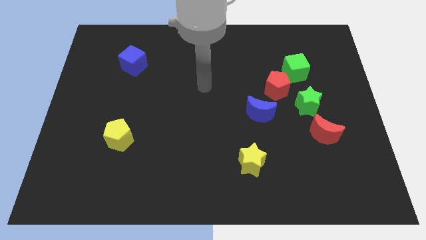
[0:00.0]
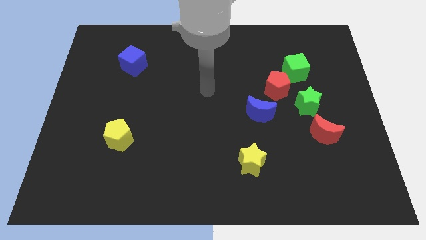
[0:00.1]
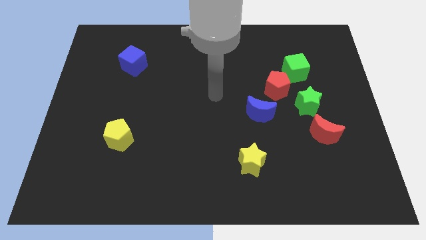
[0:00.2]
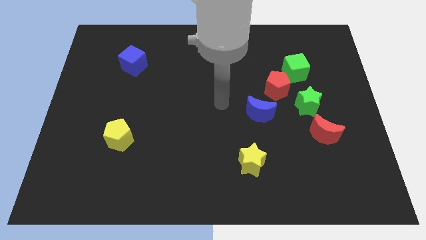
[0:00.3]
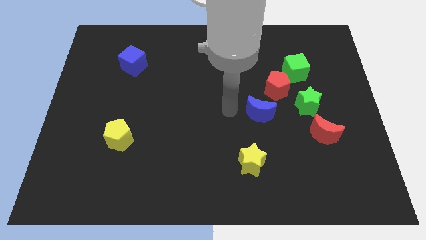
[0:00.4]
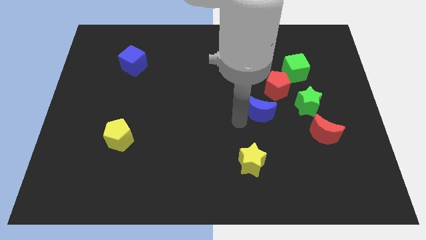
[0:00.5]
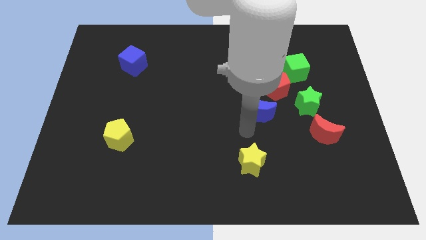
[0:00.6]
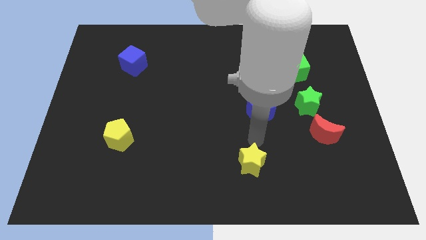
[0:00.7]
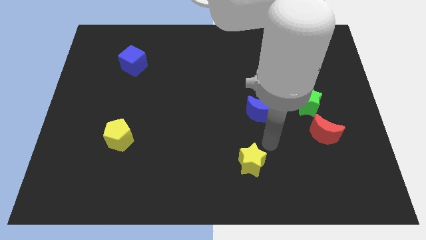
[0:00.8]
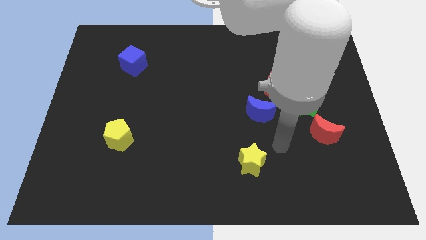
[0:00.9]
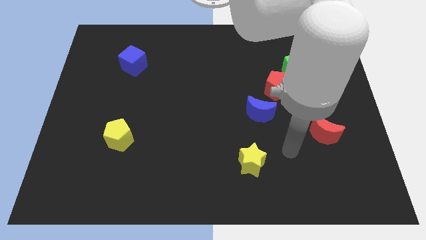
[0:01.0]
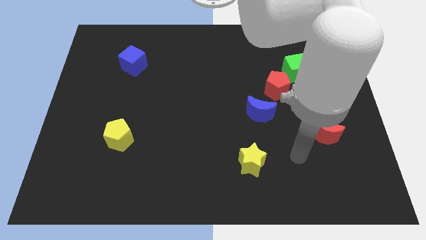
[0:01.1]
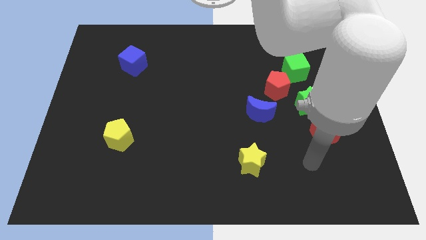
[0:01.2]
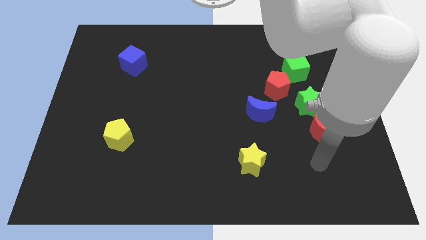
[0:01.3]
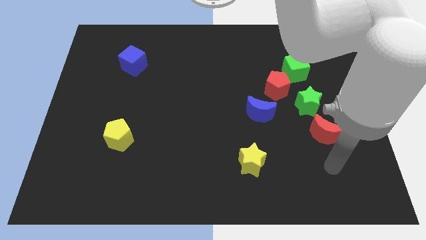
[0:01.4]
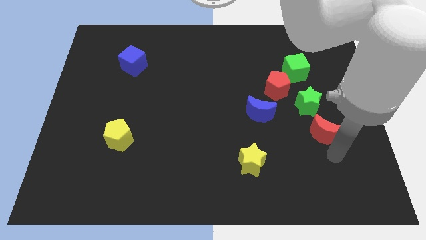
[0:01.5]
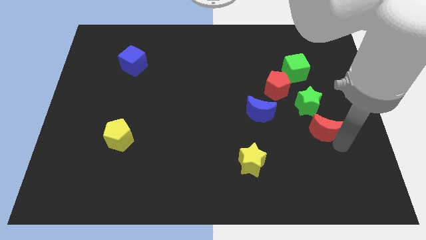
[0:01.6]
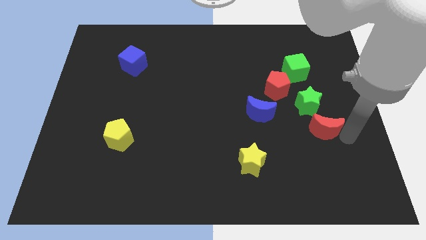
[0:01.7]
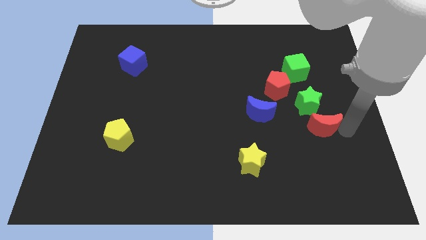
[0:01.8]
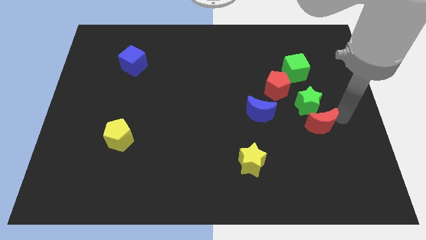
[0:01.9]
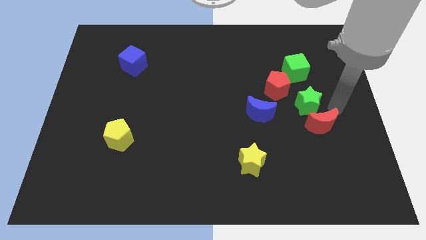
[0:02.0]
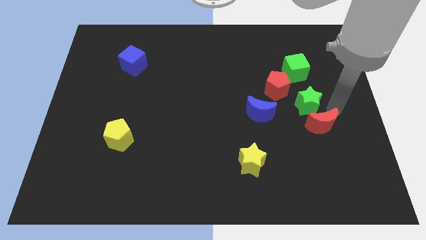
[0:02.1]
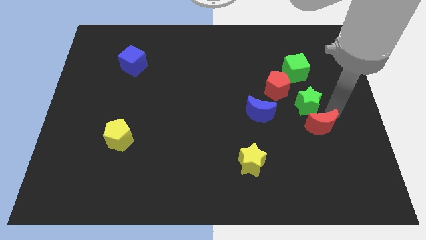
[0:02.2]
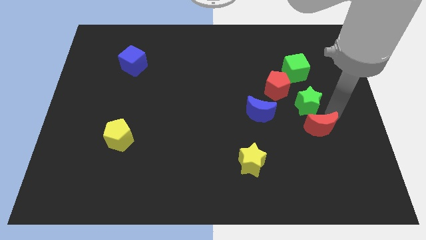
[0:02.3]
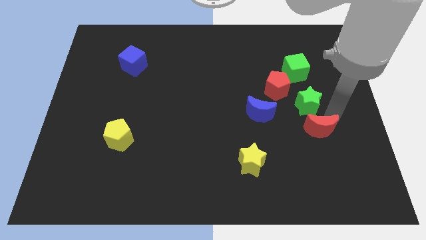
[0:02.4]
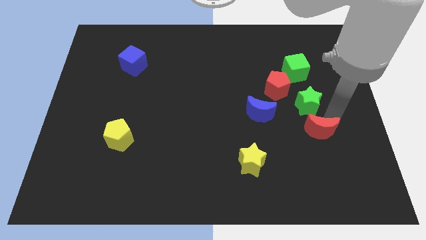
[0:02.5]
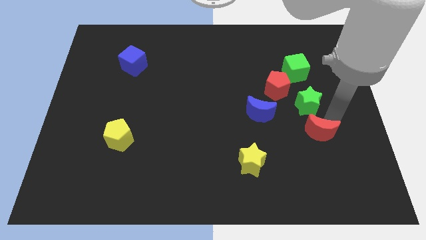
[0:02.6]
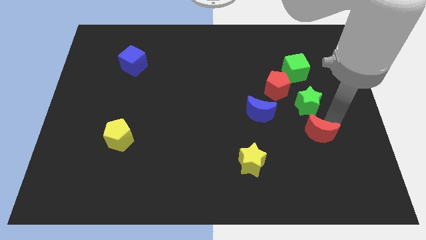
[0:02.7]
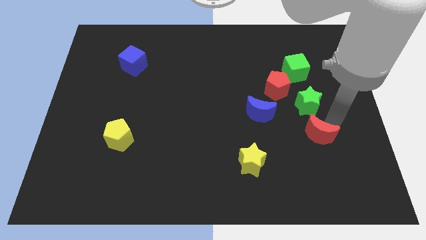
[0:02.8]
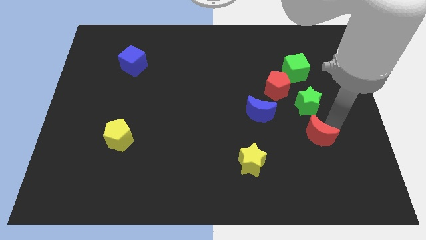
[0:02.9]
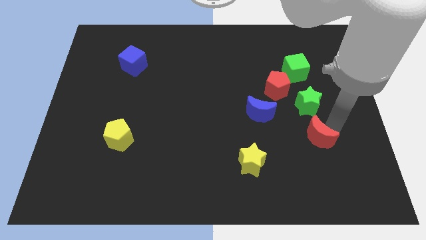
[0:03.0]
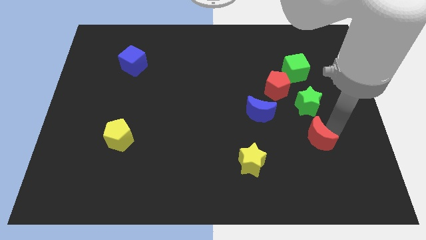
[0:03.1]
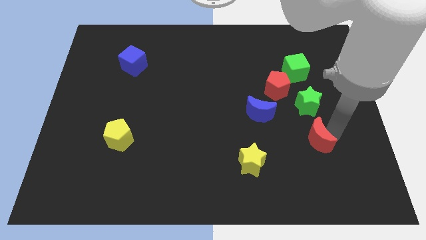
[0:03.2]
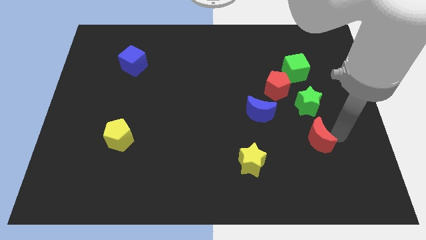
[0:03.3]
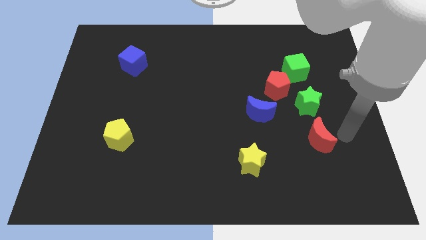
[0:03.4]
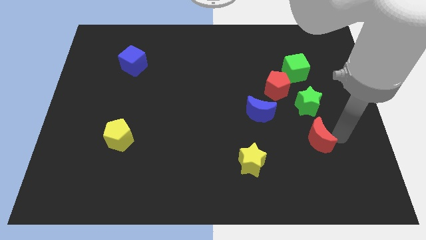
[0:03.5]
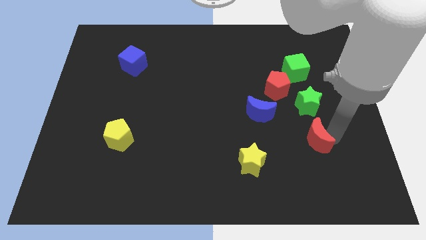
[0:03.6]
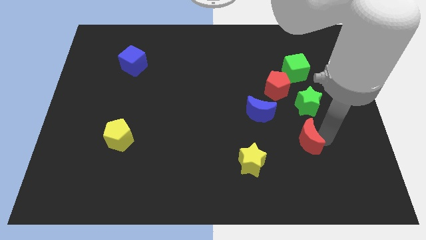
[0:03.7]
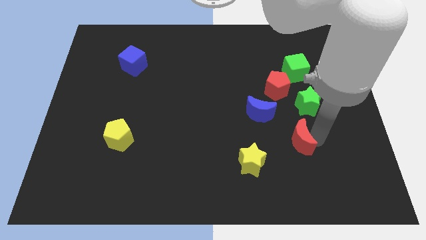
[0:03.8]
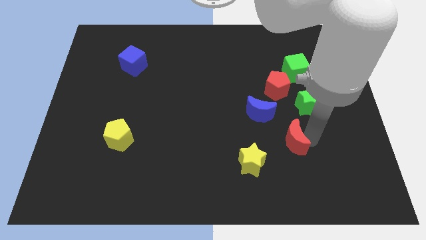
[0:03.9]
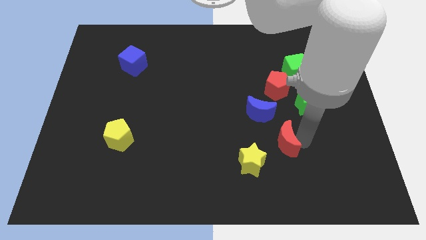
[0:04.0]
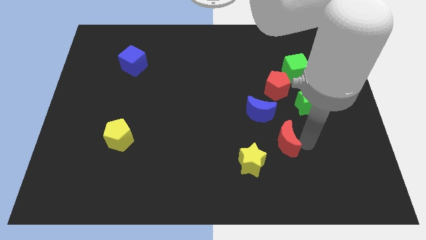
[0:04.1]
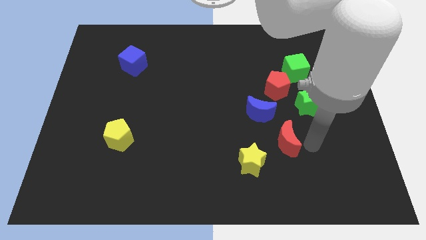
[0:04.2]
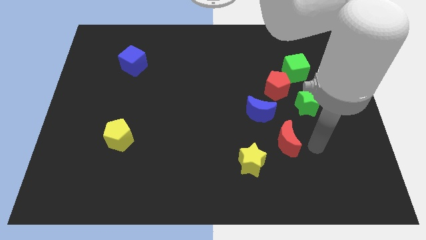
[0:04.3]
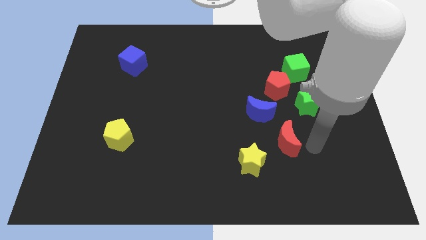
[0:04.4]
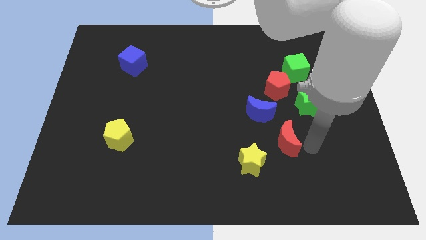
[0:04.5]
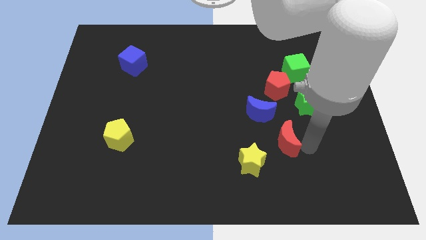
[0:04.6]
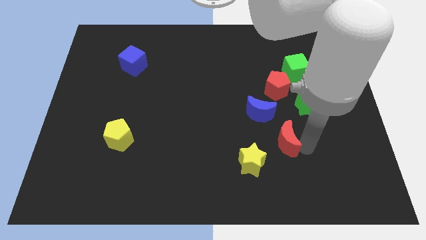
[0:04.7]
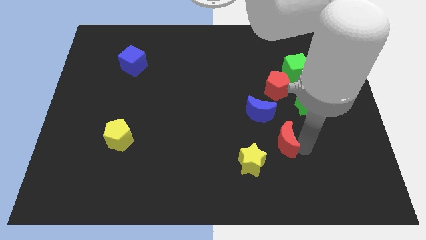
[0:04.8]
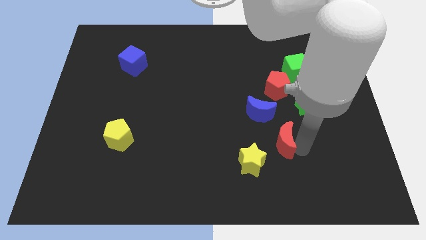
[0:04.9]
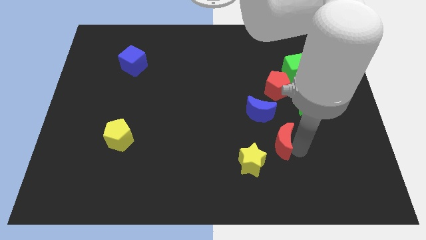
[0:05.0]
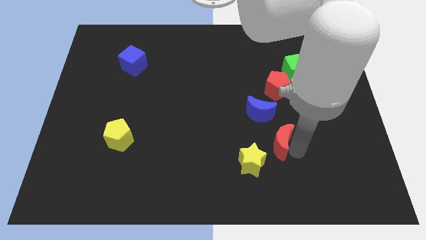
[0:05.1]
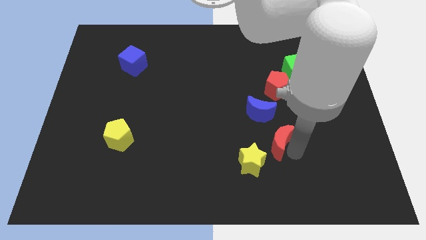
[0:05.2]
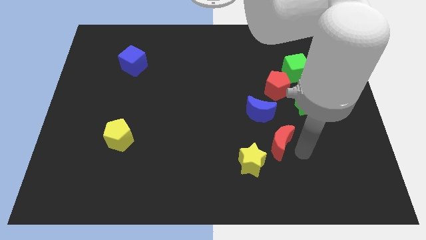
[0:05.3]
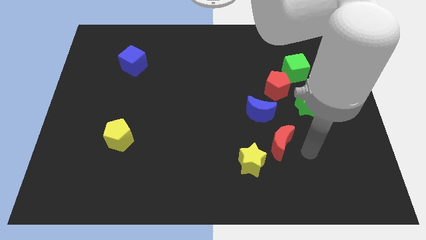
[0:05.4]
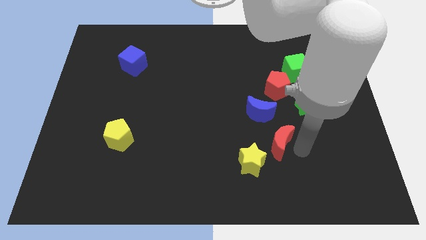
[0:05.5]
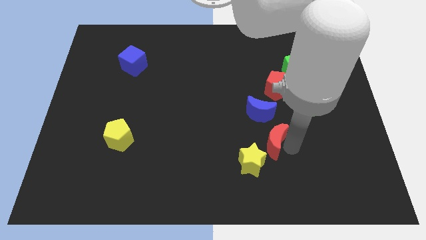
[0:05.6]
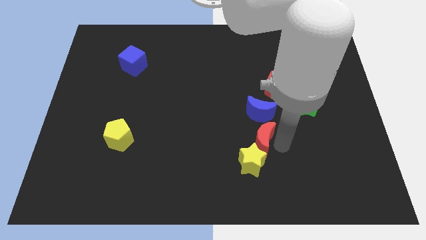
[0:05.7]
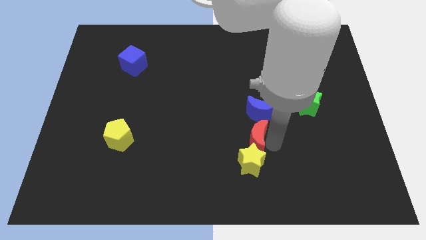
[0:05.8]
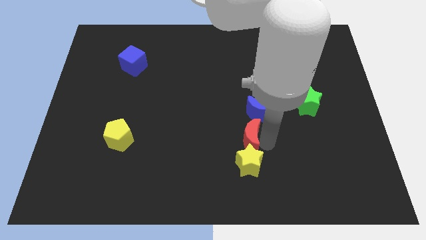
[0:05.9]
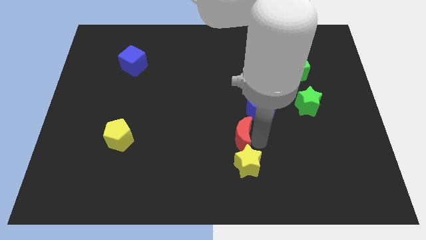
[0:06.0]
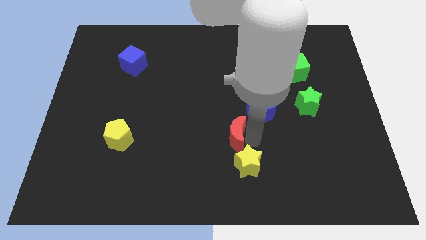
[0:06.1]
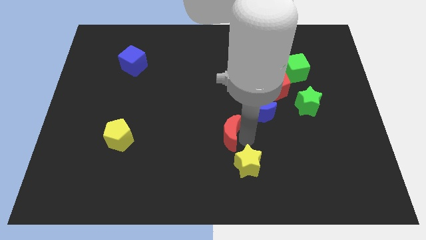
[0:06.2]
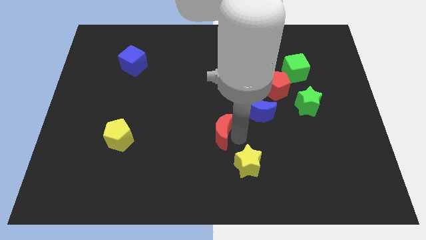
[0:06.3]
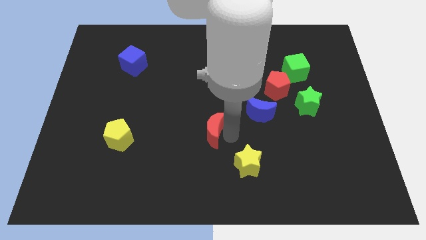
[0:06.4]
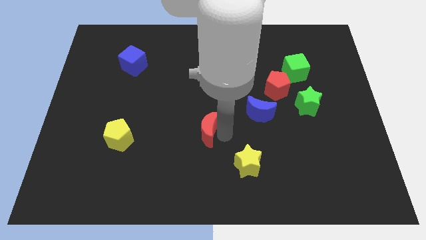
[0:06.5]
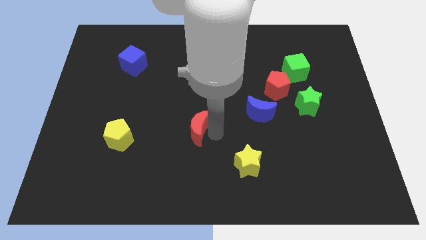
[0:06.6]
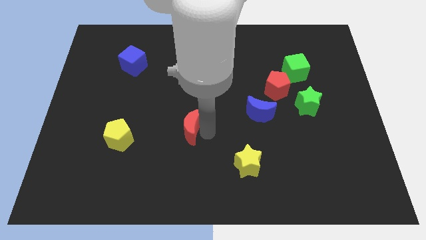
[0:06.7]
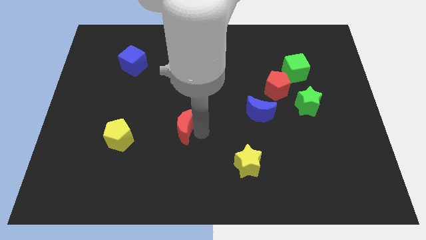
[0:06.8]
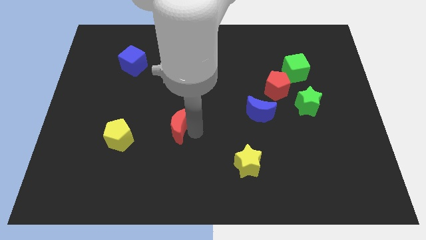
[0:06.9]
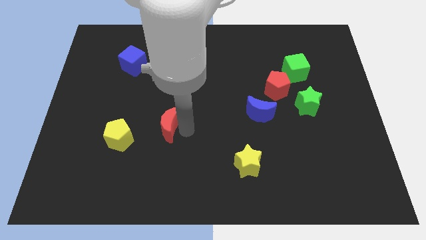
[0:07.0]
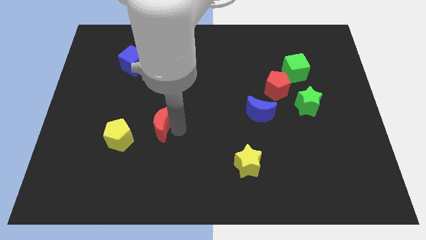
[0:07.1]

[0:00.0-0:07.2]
put the red moon diagonally up and to the right of the yellow pentagon

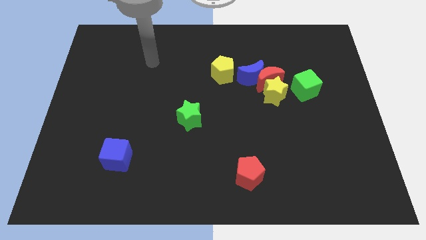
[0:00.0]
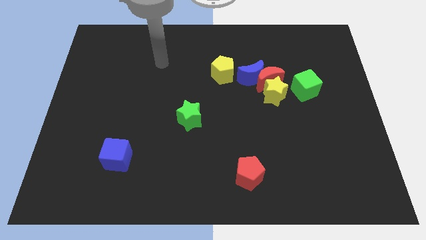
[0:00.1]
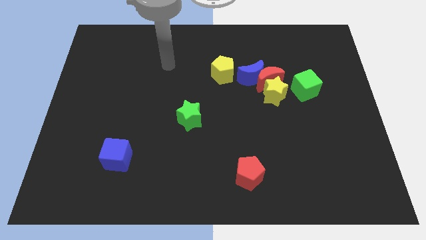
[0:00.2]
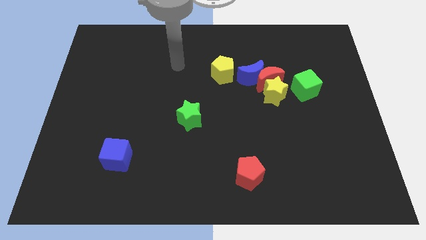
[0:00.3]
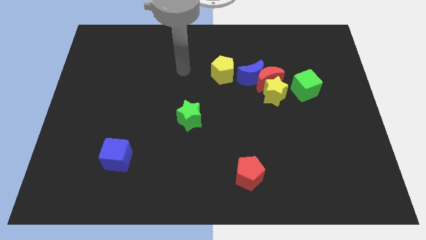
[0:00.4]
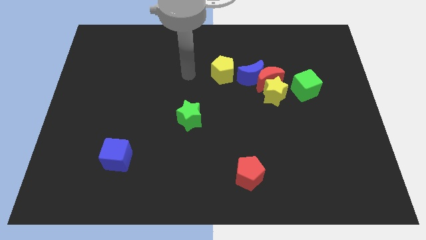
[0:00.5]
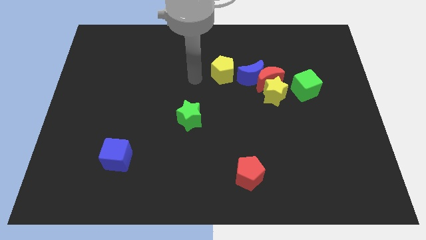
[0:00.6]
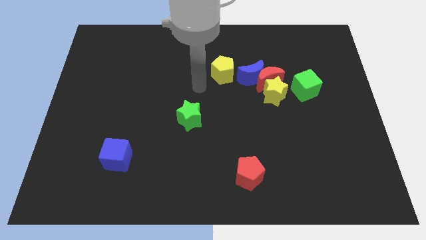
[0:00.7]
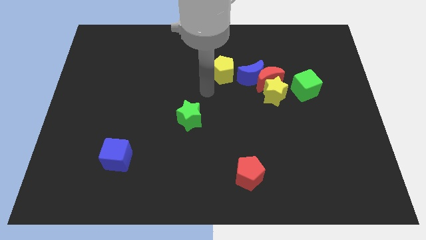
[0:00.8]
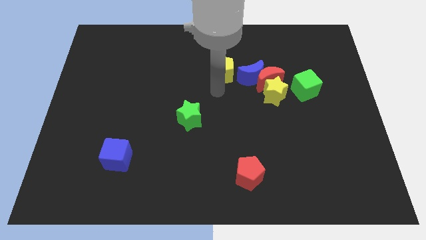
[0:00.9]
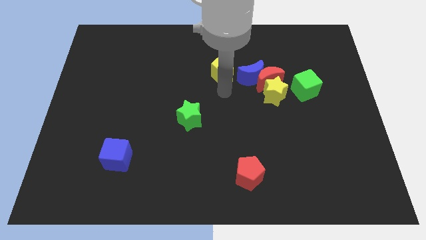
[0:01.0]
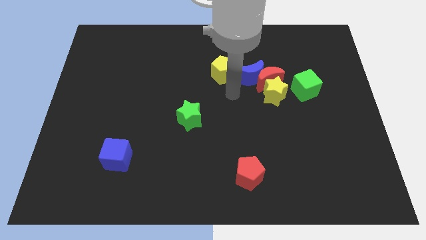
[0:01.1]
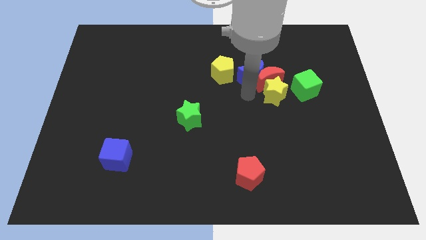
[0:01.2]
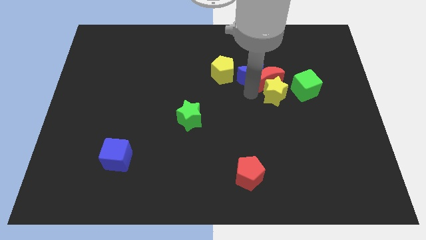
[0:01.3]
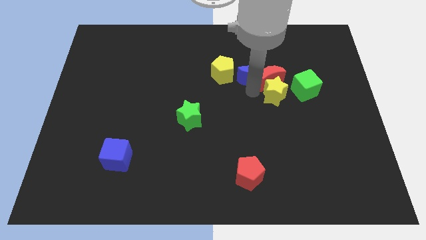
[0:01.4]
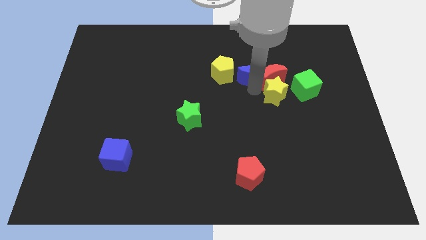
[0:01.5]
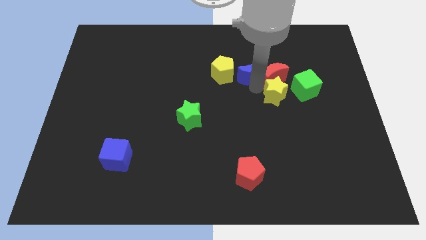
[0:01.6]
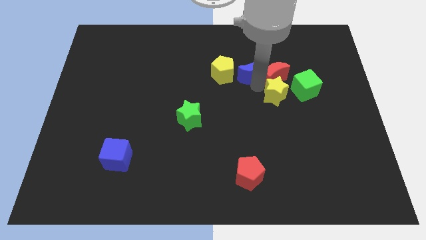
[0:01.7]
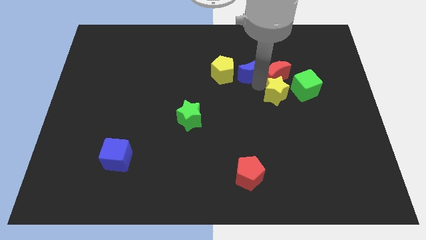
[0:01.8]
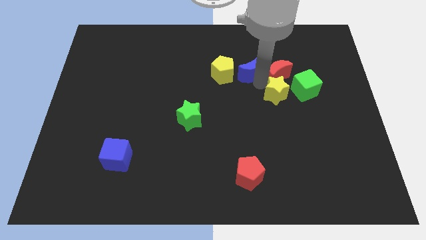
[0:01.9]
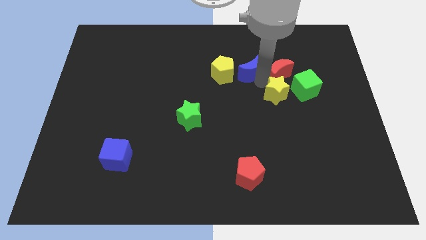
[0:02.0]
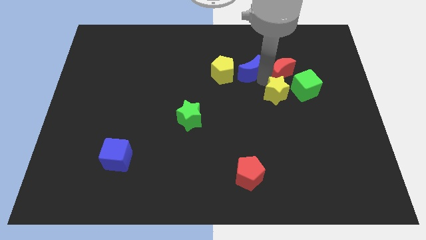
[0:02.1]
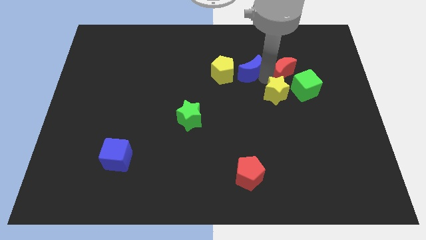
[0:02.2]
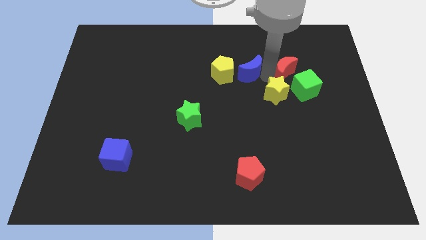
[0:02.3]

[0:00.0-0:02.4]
put the red moon to the top side of the green cube
